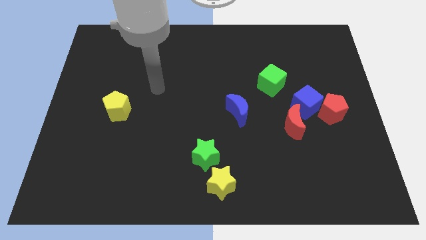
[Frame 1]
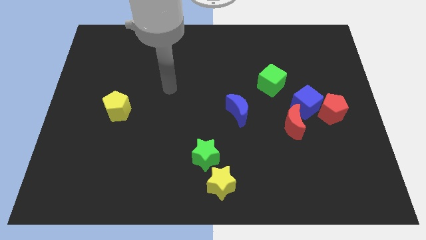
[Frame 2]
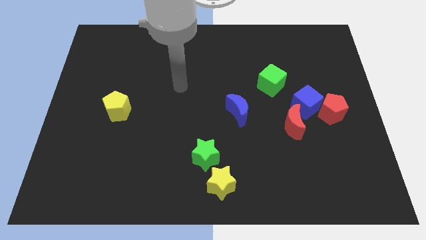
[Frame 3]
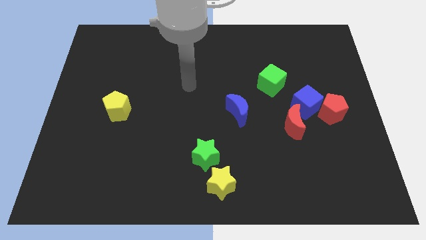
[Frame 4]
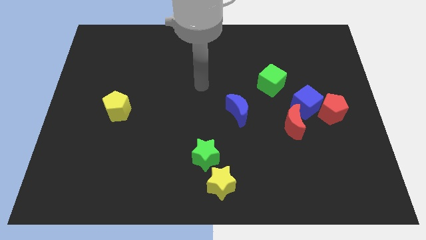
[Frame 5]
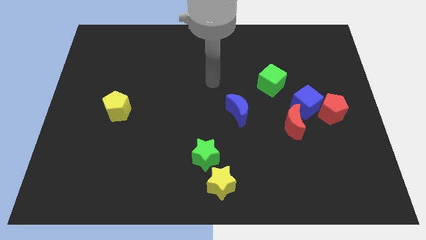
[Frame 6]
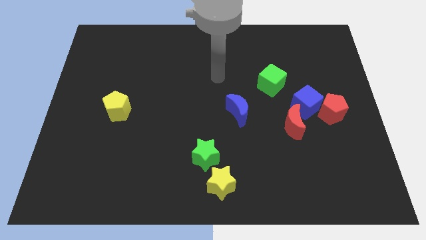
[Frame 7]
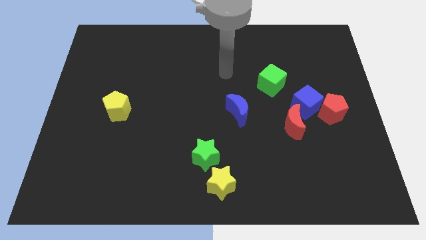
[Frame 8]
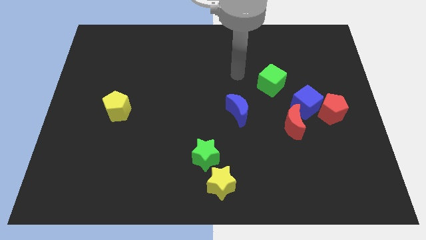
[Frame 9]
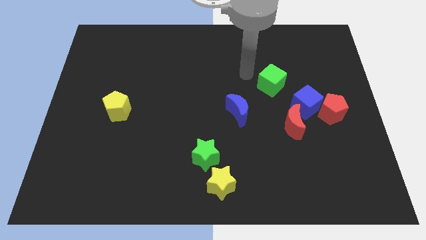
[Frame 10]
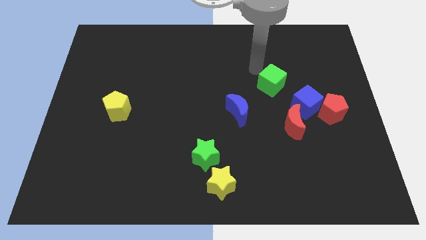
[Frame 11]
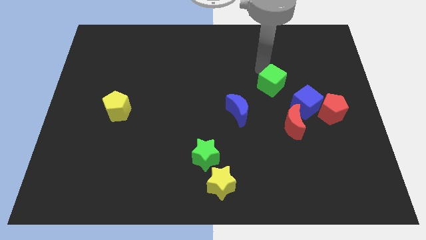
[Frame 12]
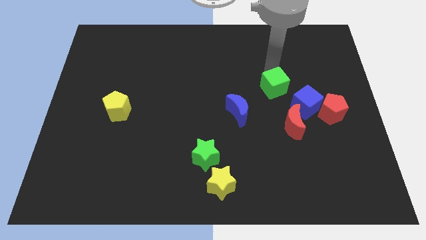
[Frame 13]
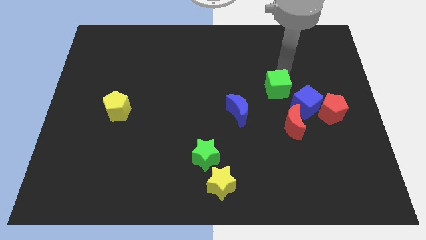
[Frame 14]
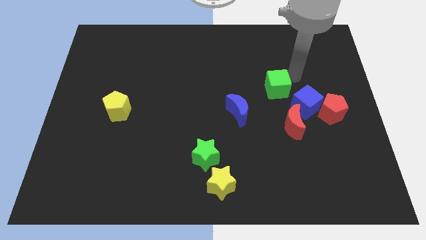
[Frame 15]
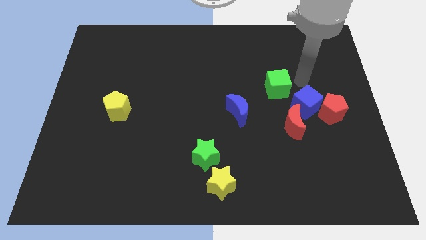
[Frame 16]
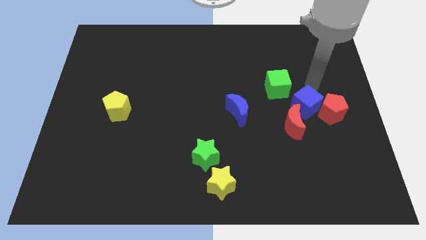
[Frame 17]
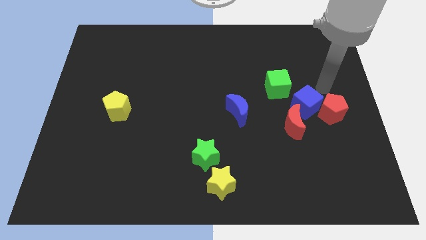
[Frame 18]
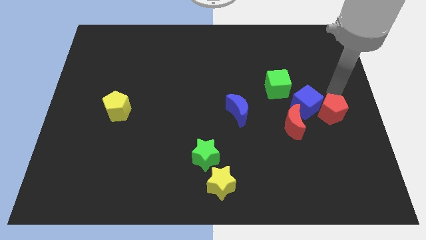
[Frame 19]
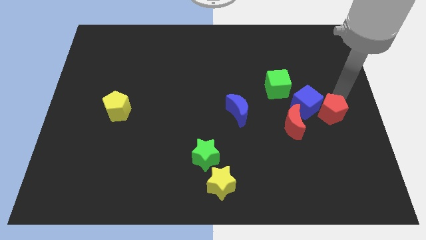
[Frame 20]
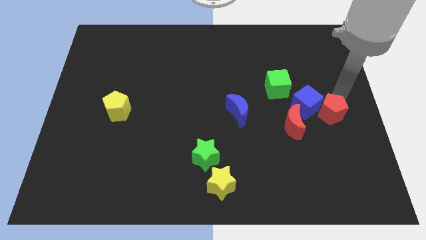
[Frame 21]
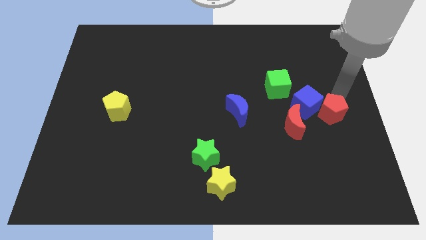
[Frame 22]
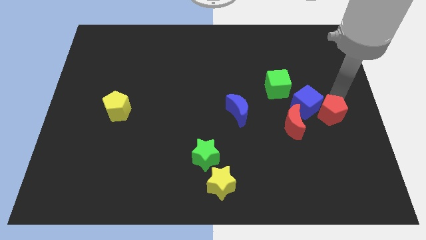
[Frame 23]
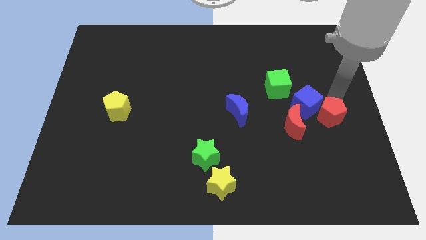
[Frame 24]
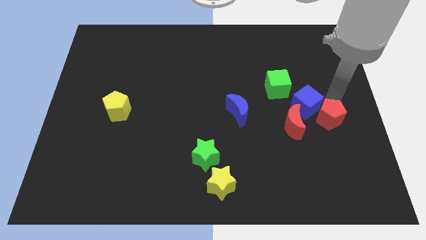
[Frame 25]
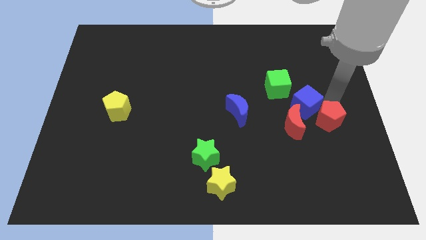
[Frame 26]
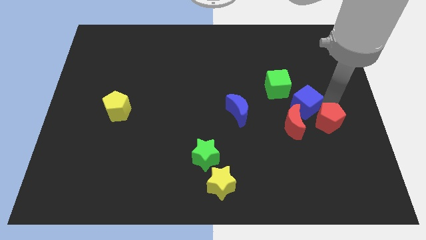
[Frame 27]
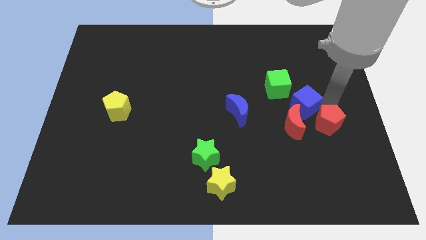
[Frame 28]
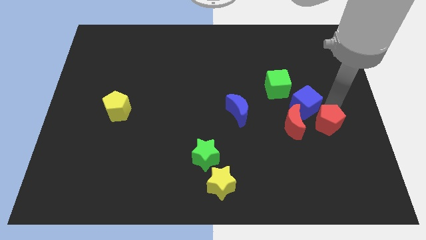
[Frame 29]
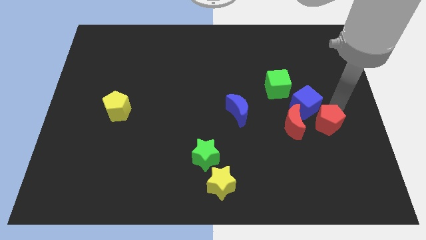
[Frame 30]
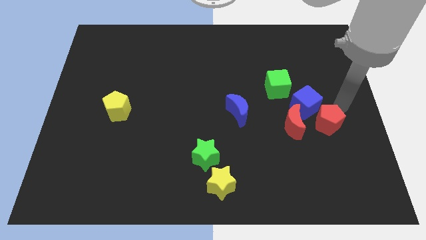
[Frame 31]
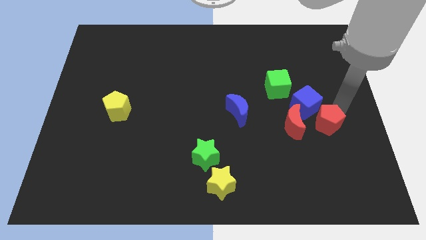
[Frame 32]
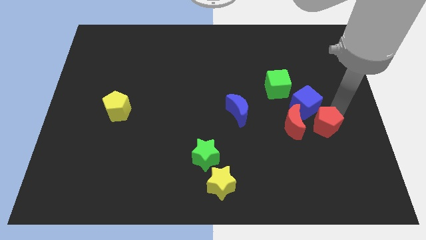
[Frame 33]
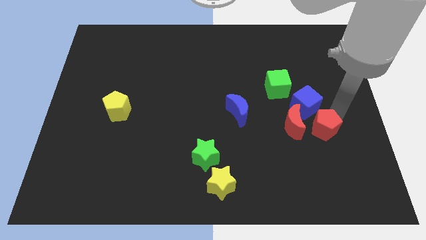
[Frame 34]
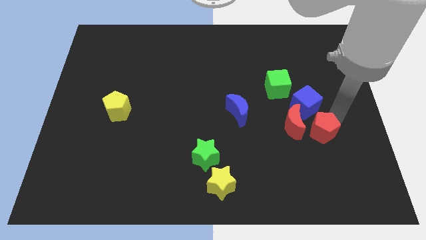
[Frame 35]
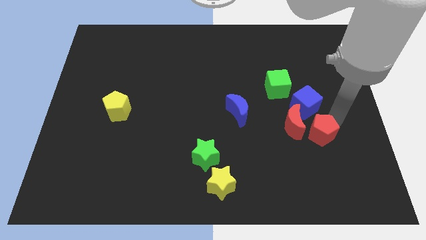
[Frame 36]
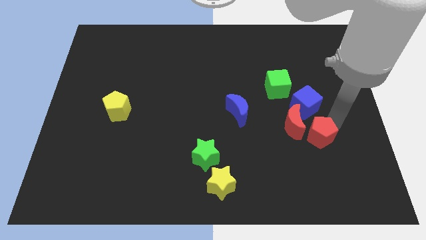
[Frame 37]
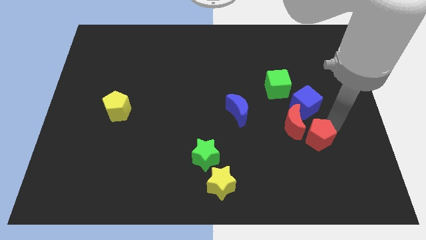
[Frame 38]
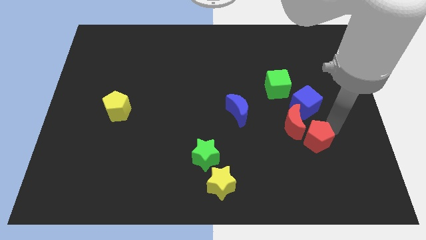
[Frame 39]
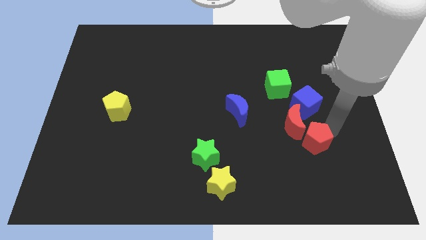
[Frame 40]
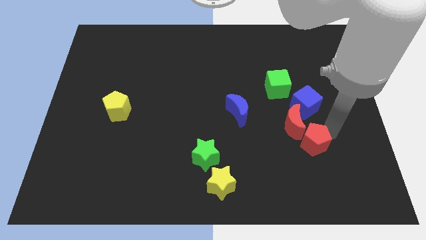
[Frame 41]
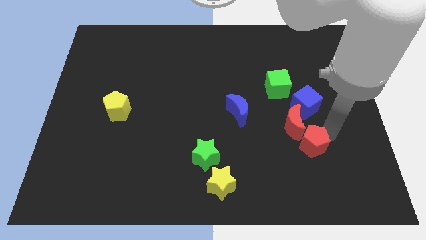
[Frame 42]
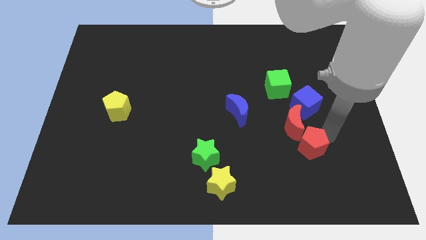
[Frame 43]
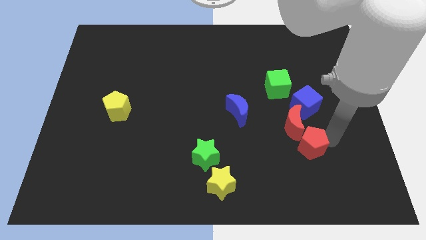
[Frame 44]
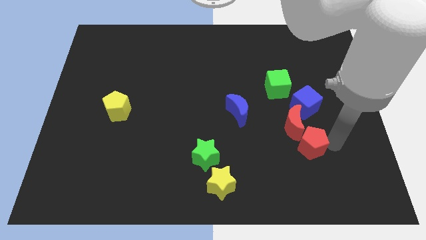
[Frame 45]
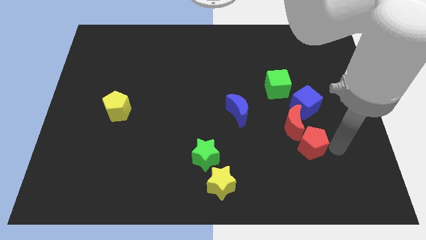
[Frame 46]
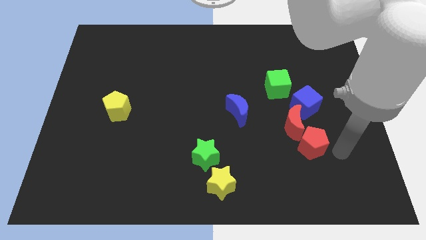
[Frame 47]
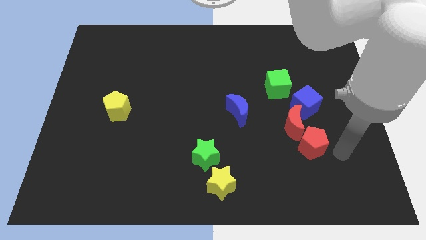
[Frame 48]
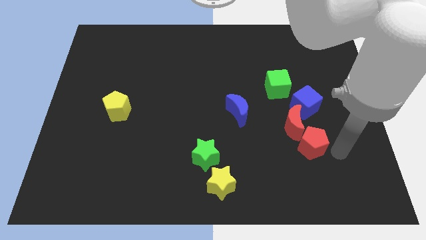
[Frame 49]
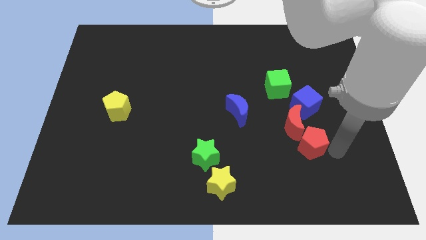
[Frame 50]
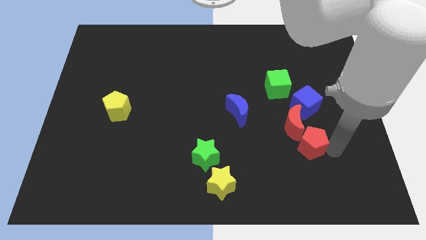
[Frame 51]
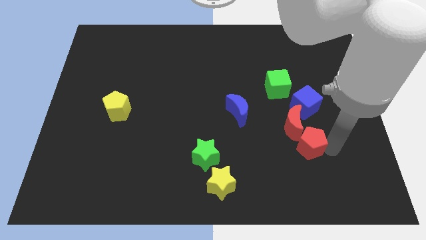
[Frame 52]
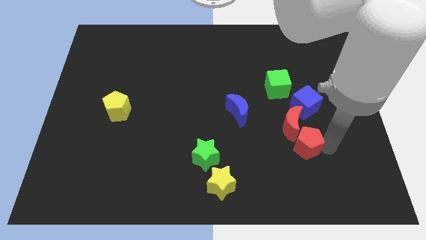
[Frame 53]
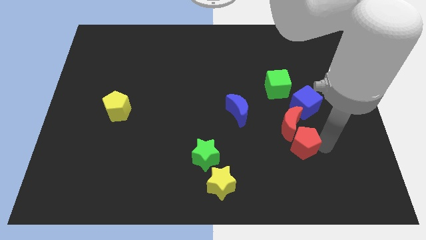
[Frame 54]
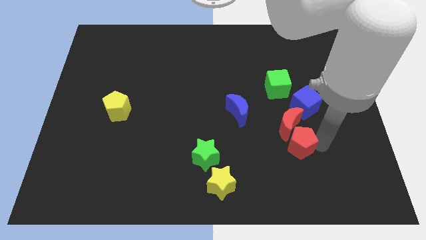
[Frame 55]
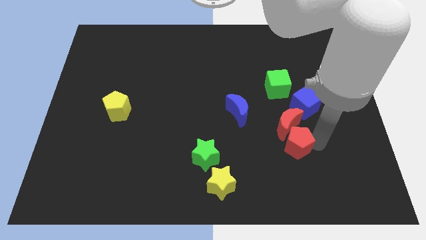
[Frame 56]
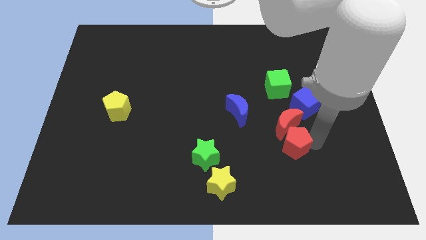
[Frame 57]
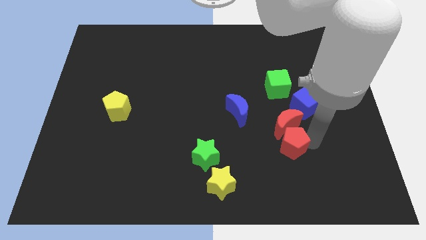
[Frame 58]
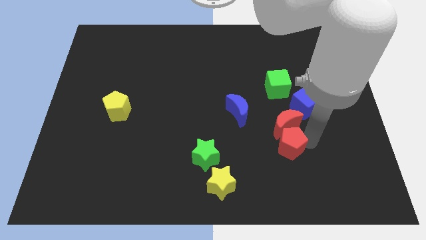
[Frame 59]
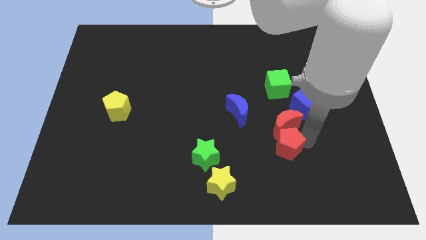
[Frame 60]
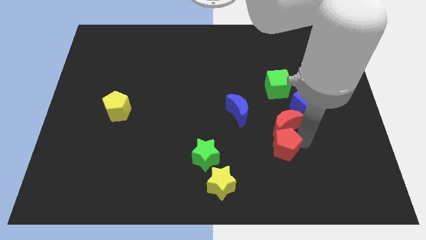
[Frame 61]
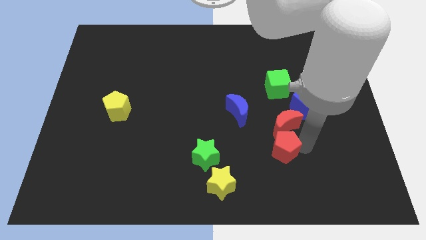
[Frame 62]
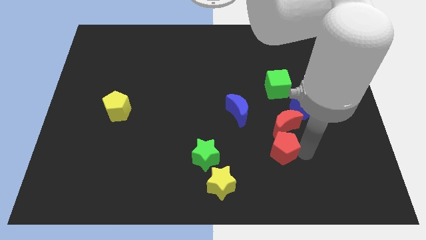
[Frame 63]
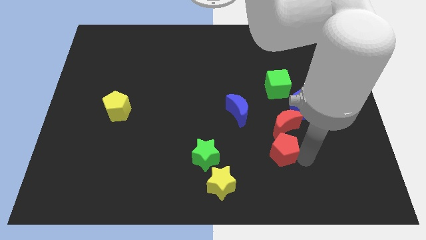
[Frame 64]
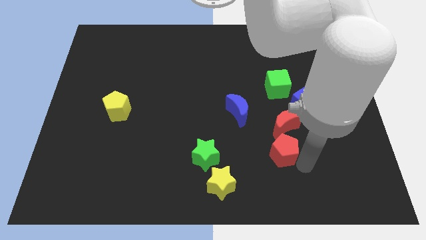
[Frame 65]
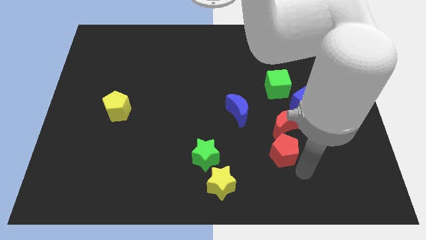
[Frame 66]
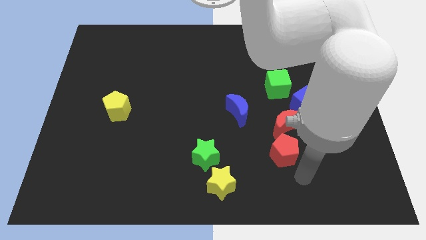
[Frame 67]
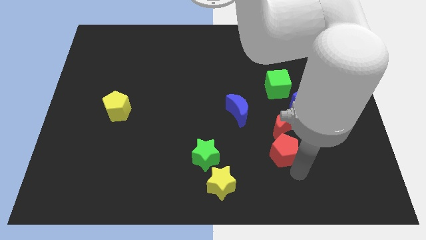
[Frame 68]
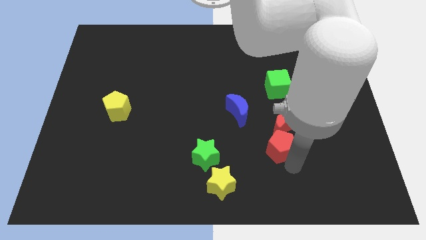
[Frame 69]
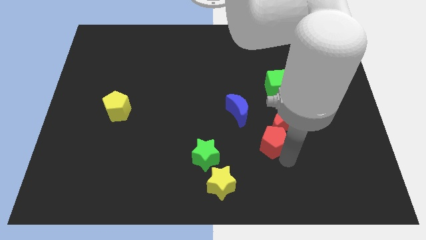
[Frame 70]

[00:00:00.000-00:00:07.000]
move the red pentagon to the bottom right of the blue moon

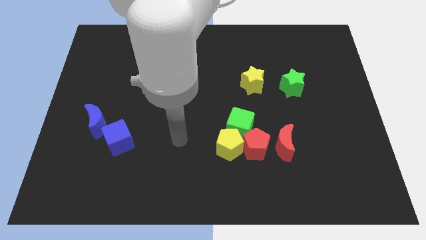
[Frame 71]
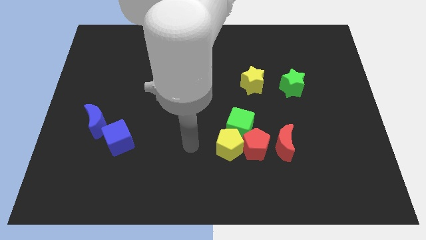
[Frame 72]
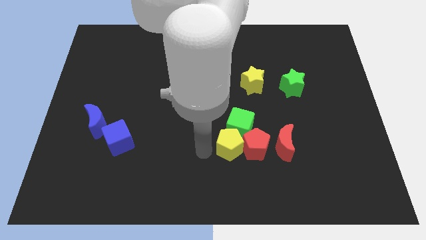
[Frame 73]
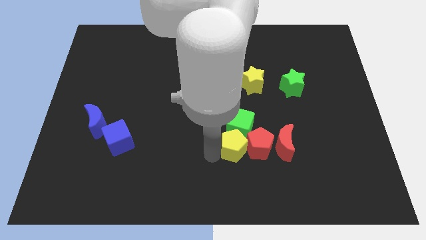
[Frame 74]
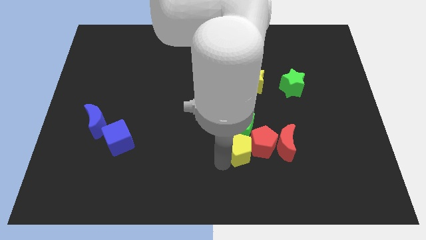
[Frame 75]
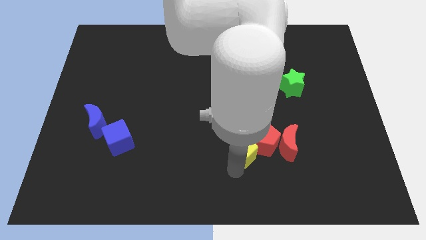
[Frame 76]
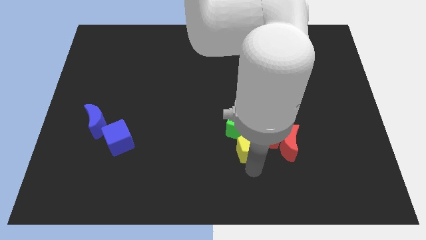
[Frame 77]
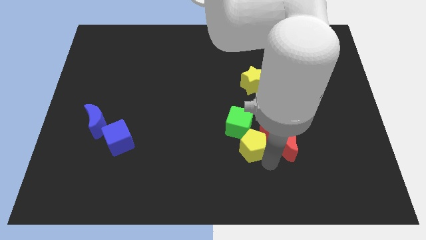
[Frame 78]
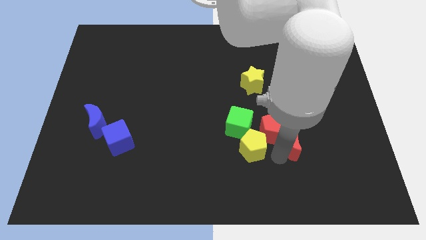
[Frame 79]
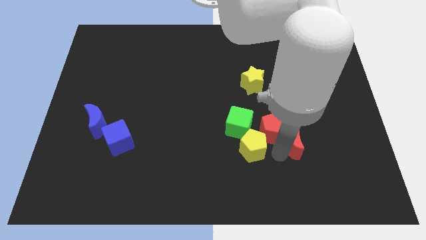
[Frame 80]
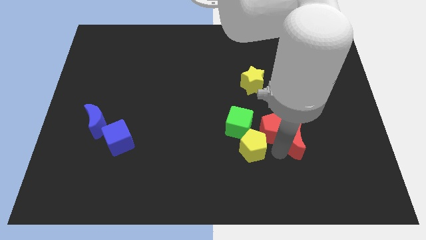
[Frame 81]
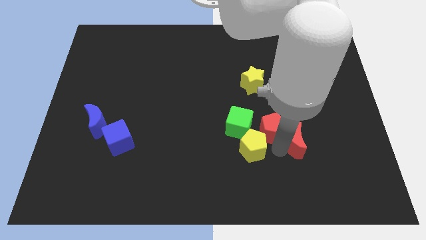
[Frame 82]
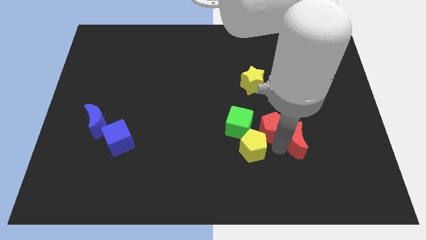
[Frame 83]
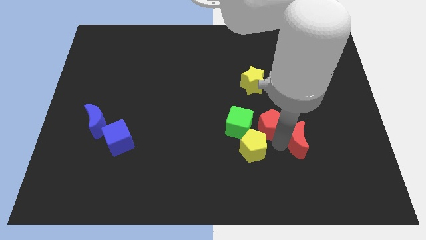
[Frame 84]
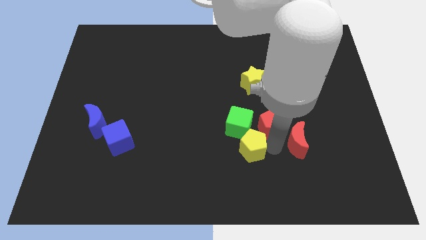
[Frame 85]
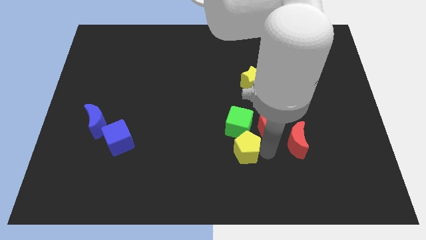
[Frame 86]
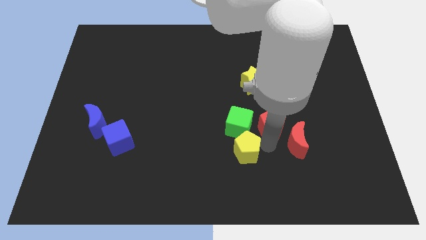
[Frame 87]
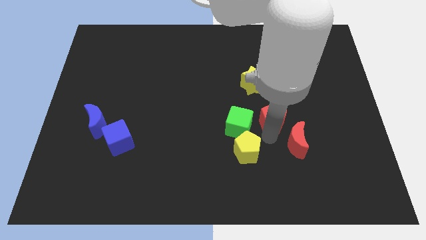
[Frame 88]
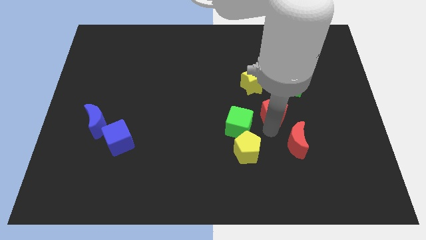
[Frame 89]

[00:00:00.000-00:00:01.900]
push the red pentagon to the bottom right of the yellow star
